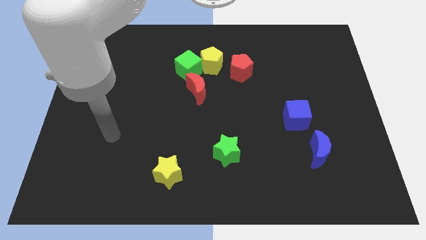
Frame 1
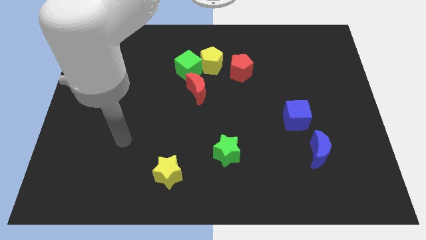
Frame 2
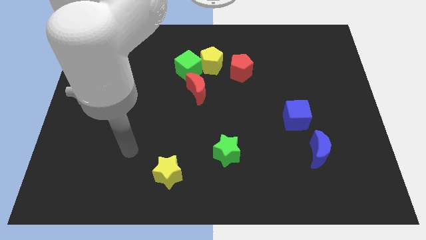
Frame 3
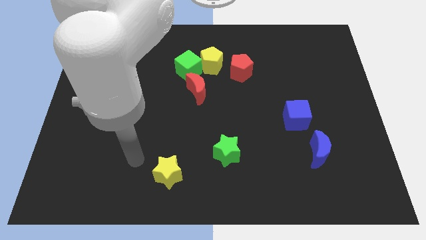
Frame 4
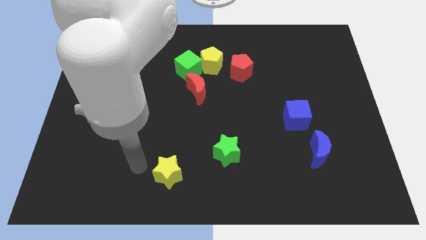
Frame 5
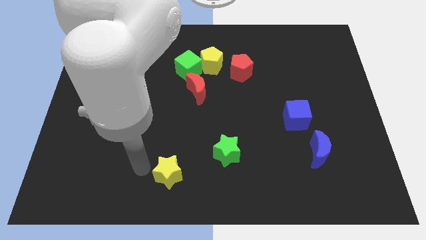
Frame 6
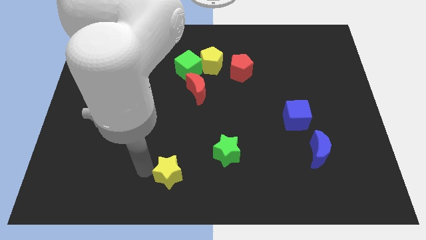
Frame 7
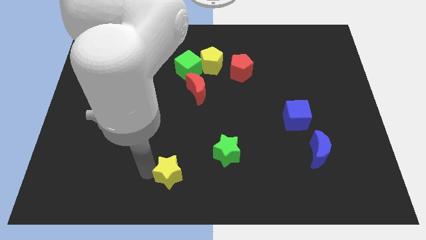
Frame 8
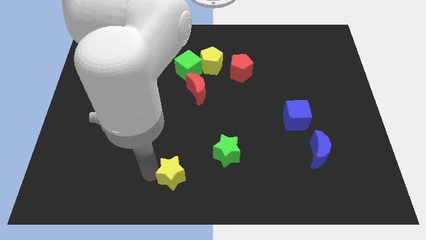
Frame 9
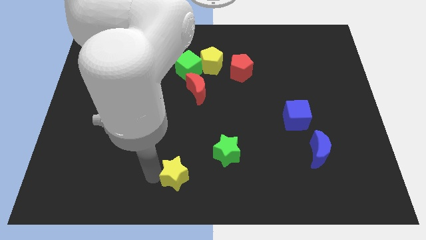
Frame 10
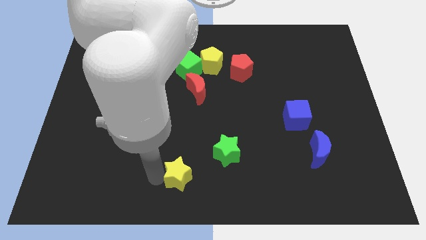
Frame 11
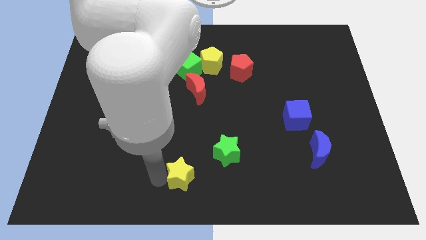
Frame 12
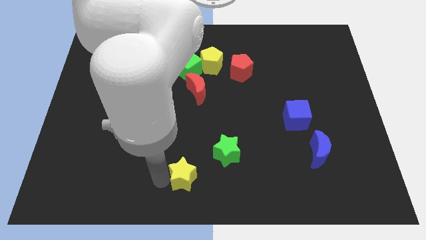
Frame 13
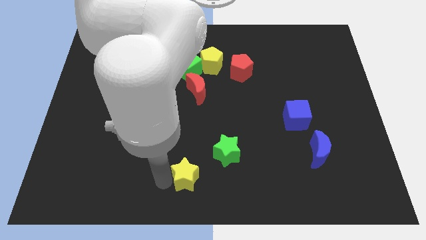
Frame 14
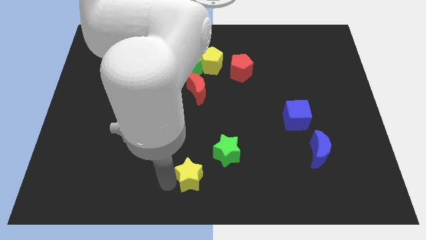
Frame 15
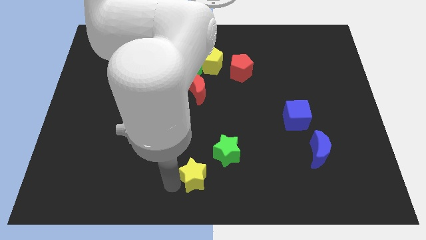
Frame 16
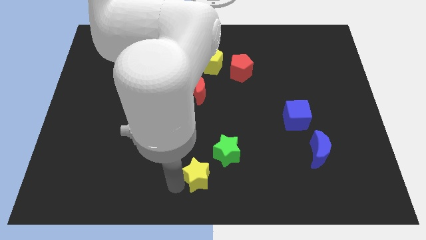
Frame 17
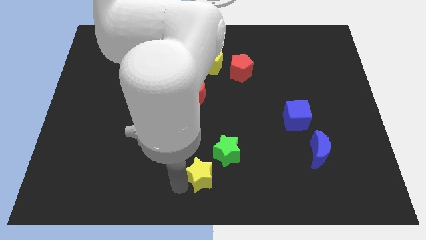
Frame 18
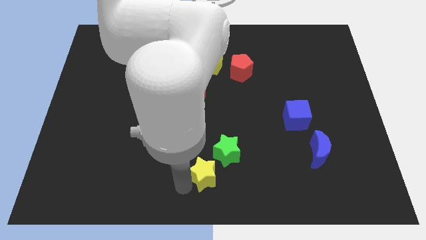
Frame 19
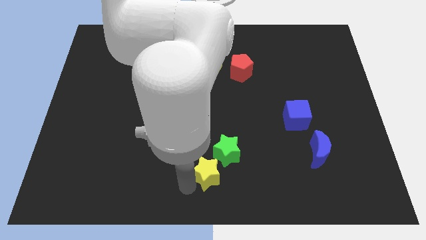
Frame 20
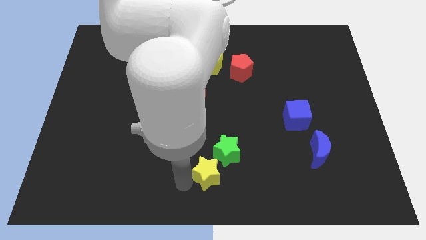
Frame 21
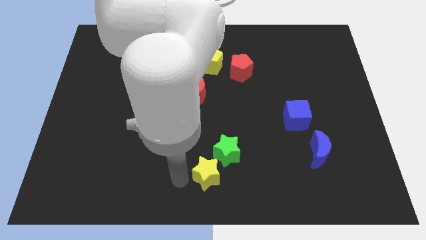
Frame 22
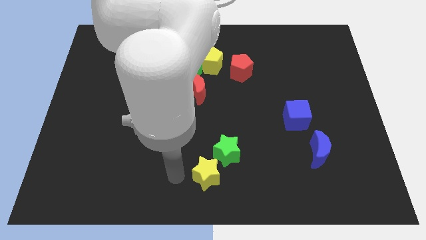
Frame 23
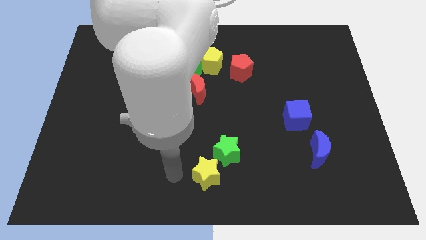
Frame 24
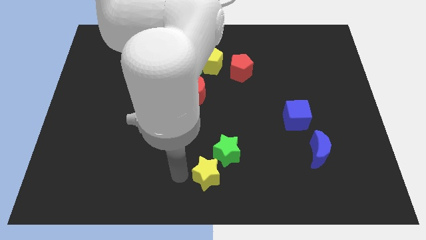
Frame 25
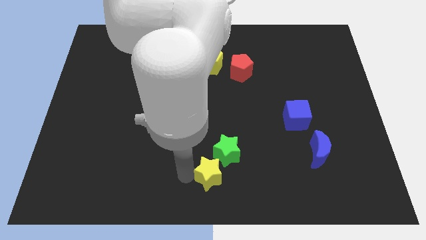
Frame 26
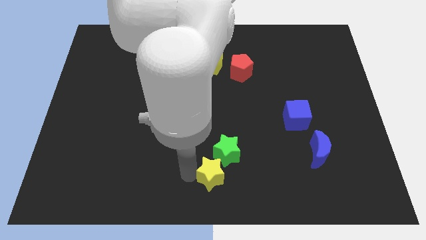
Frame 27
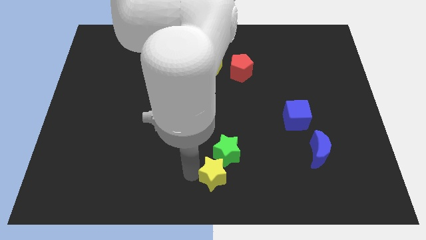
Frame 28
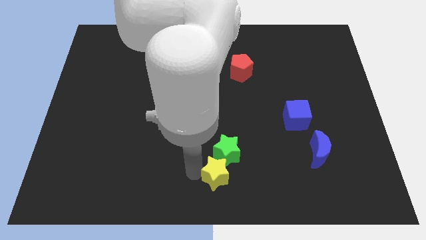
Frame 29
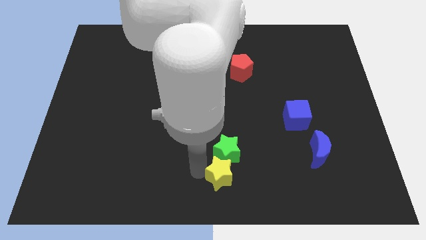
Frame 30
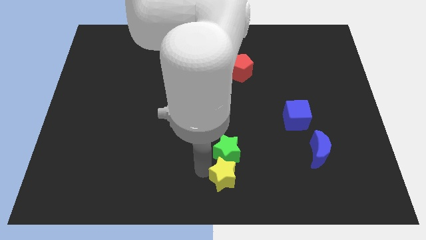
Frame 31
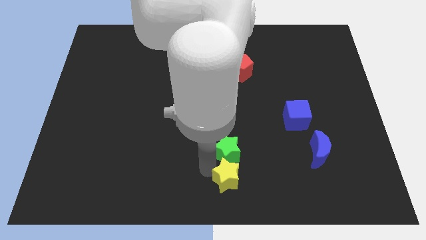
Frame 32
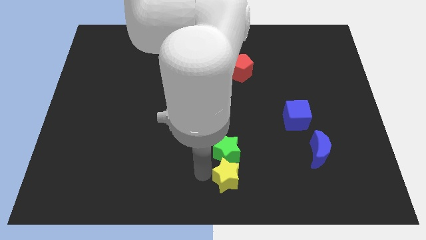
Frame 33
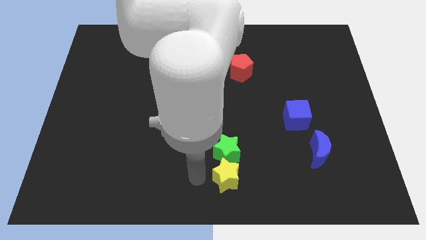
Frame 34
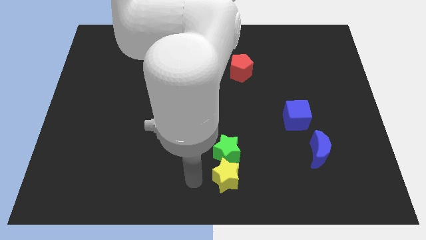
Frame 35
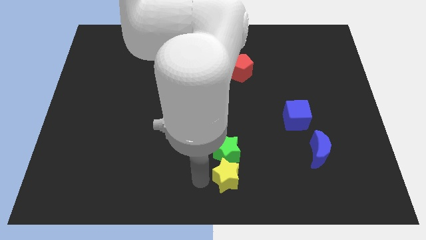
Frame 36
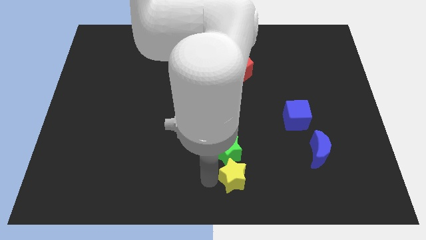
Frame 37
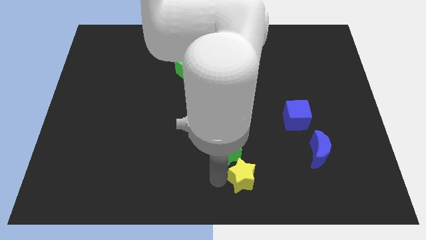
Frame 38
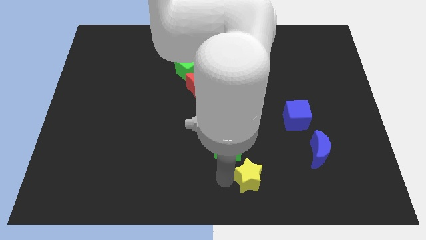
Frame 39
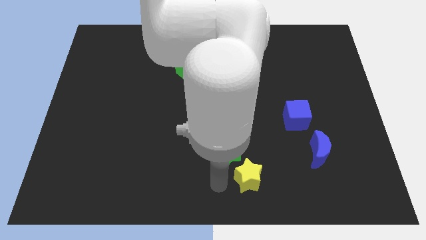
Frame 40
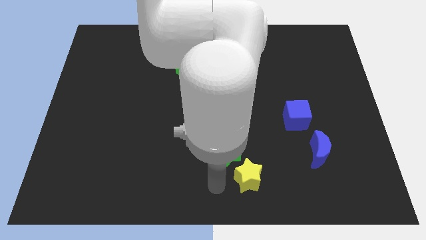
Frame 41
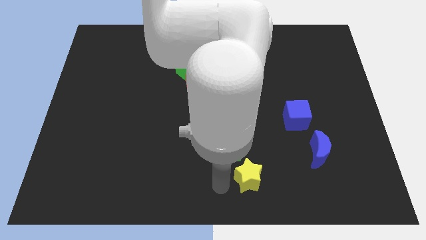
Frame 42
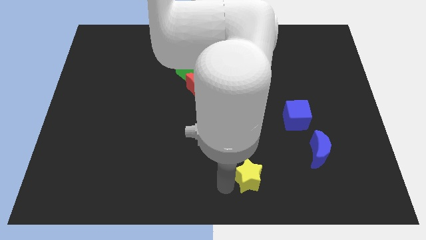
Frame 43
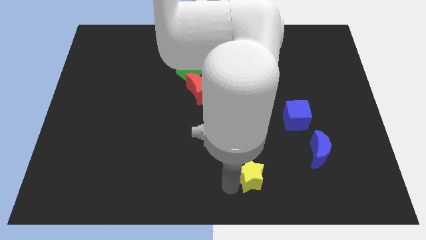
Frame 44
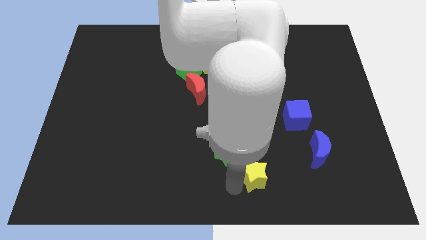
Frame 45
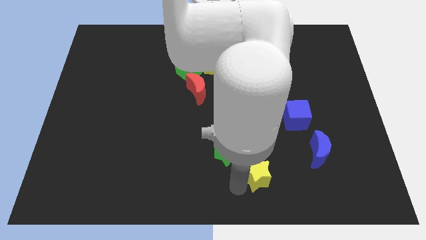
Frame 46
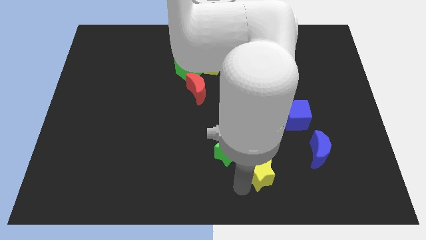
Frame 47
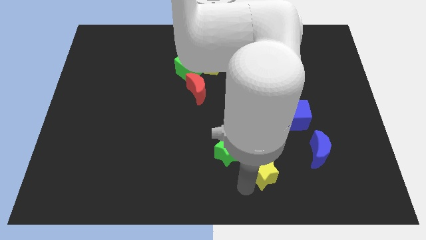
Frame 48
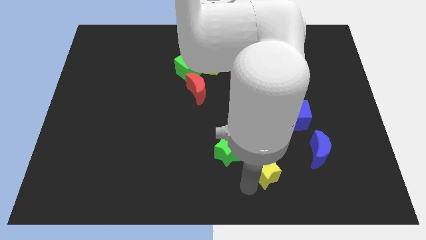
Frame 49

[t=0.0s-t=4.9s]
slide the yellow star to the right

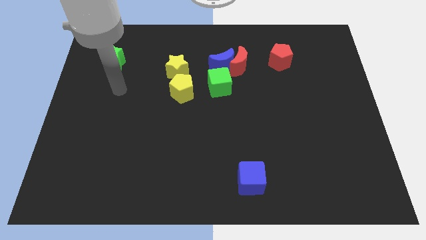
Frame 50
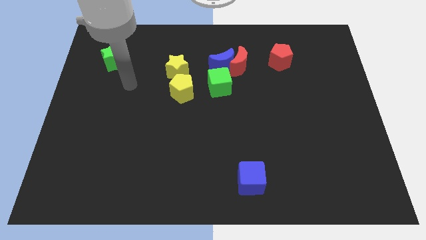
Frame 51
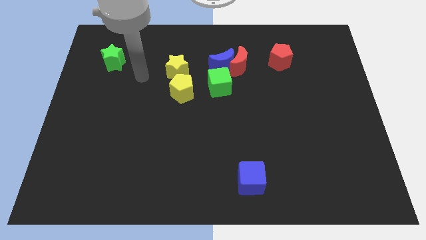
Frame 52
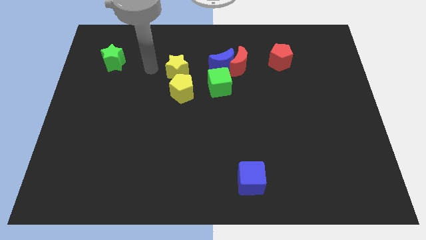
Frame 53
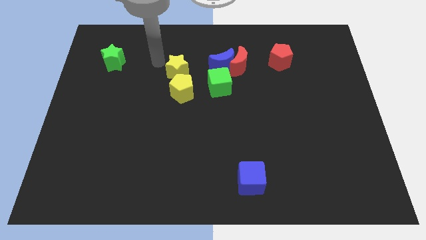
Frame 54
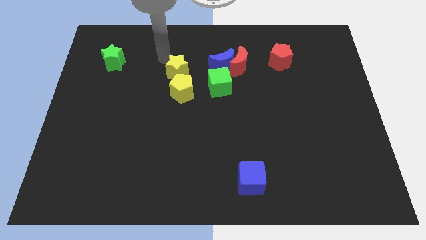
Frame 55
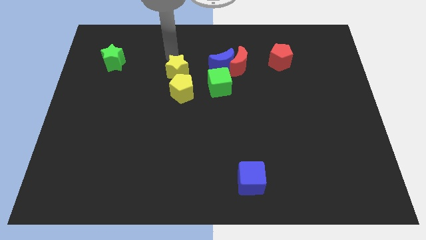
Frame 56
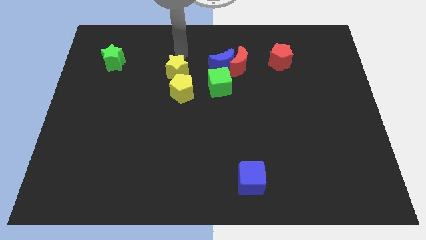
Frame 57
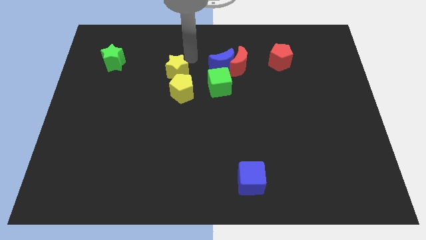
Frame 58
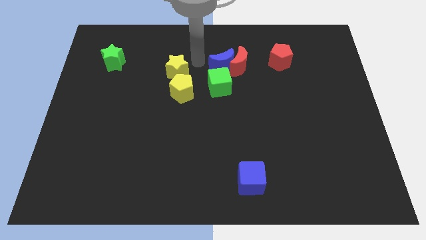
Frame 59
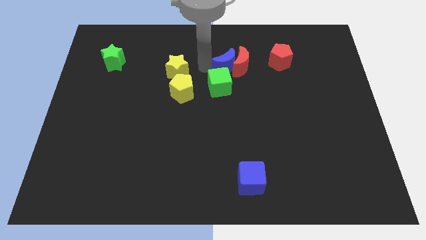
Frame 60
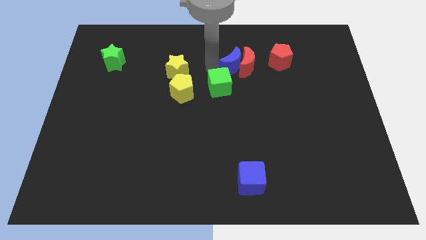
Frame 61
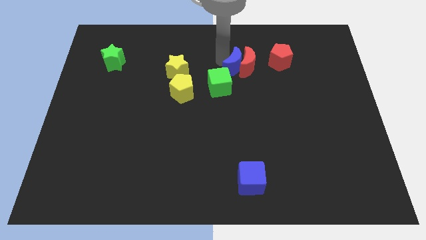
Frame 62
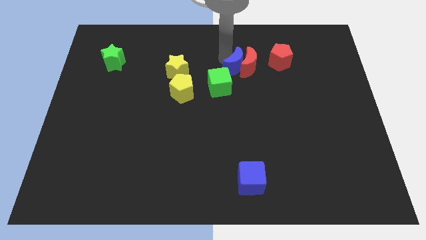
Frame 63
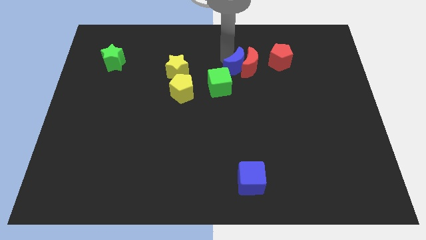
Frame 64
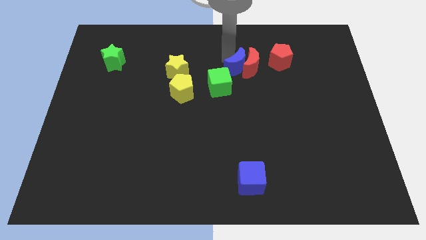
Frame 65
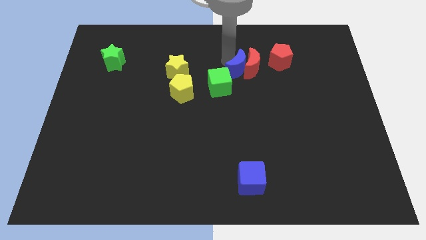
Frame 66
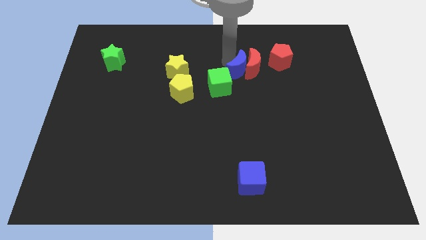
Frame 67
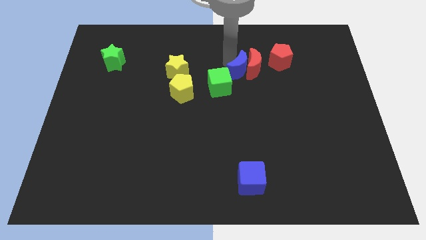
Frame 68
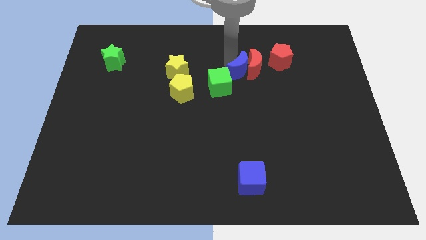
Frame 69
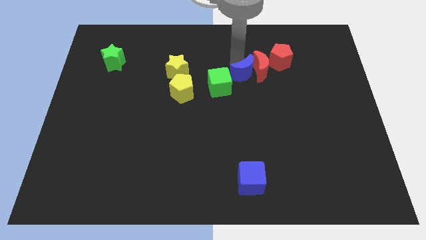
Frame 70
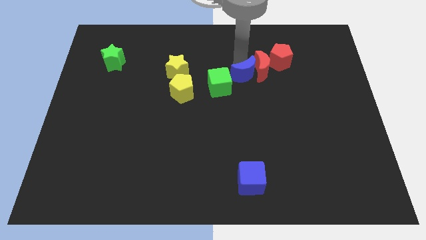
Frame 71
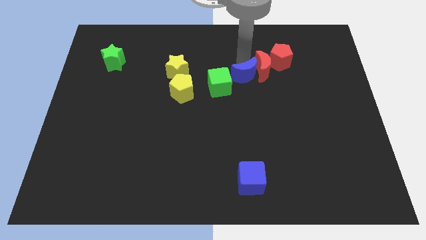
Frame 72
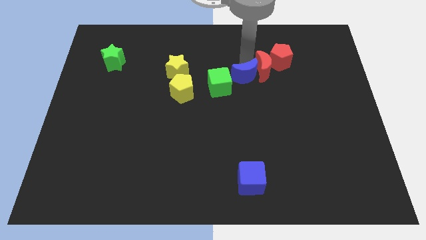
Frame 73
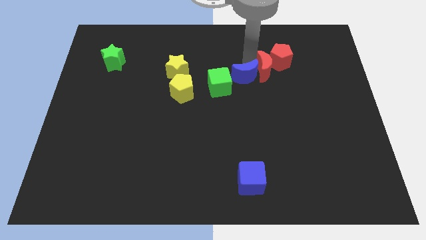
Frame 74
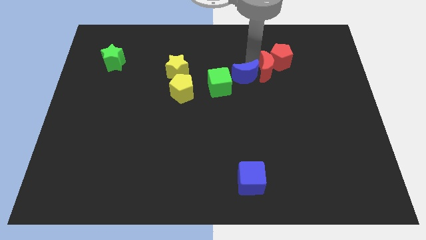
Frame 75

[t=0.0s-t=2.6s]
slightly push the red moon to the right

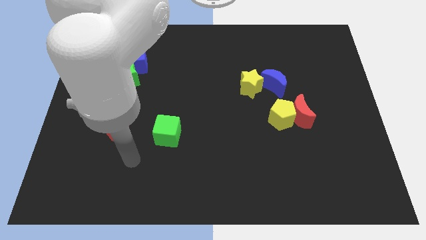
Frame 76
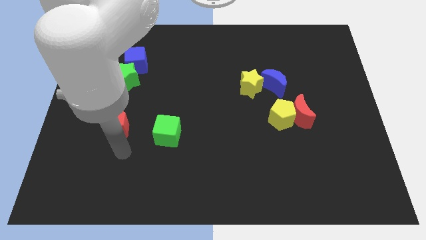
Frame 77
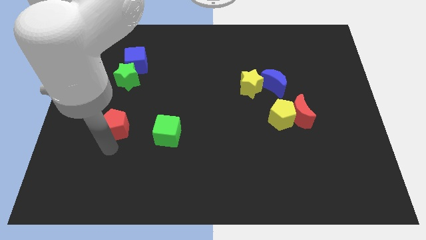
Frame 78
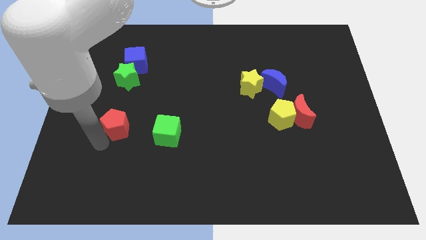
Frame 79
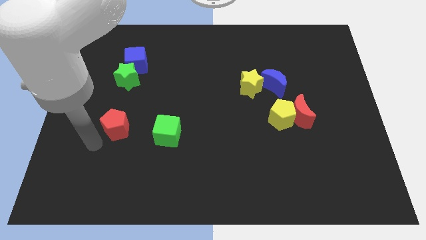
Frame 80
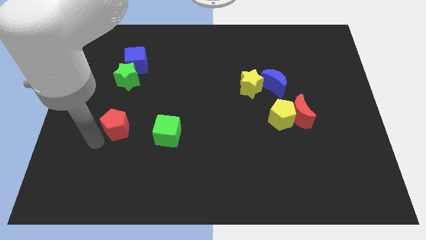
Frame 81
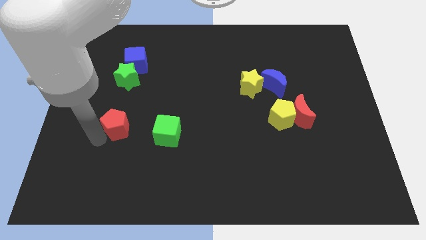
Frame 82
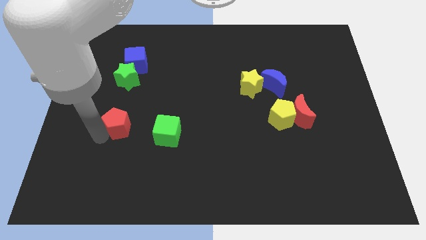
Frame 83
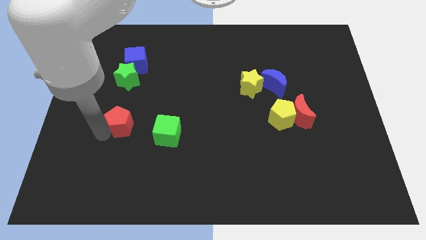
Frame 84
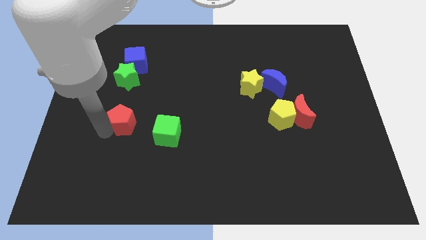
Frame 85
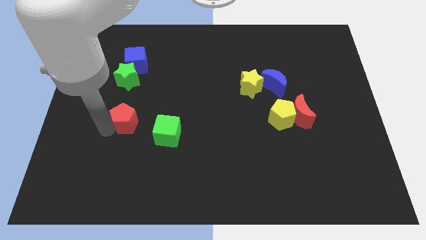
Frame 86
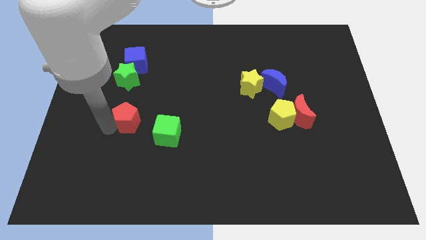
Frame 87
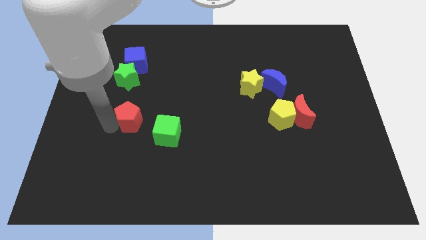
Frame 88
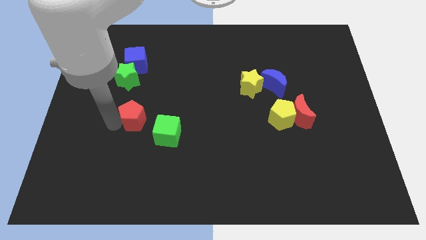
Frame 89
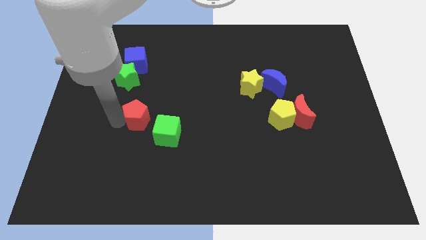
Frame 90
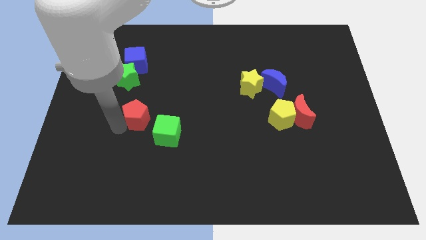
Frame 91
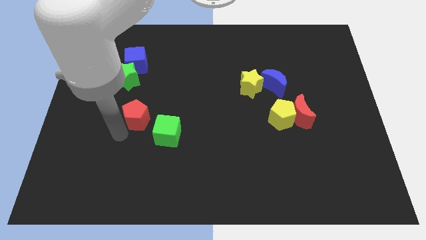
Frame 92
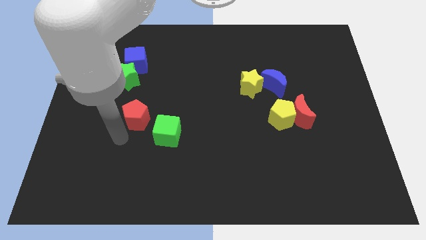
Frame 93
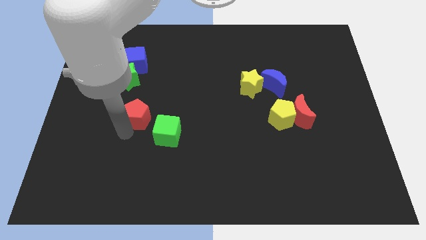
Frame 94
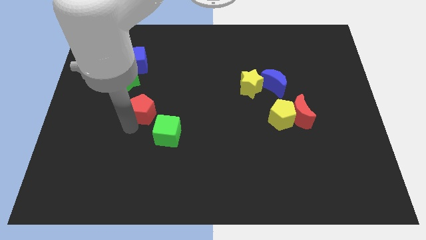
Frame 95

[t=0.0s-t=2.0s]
slightly move the red pentagon diagonally up and to the right
